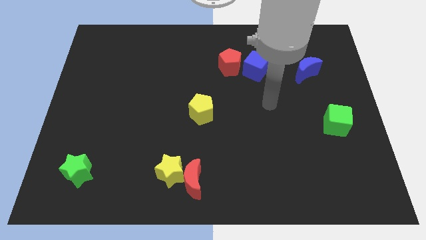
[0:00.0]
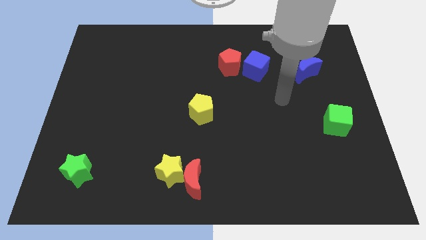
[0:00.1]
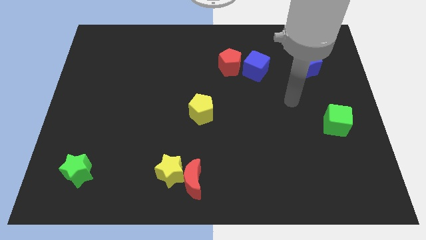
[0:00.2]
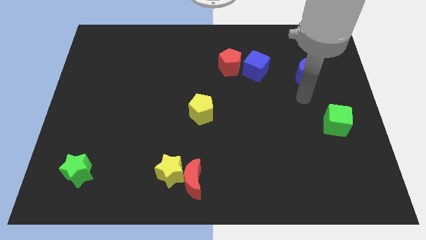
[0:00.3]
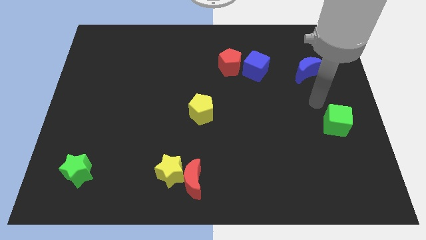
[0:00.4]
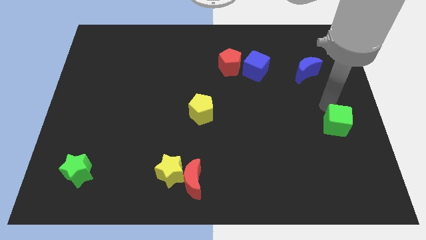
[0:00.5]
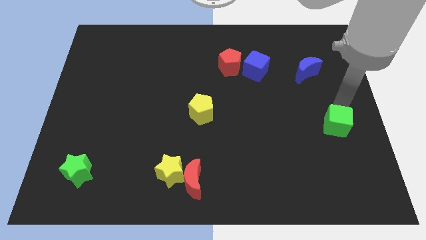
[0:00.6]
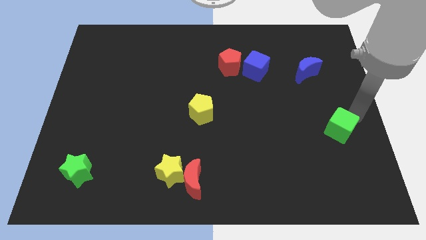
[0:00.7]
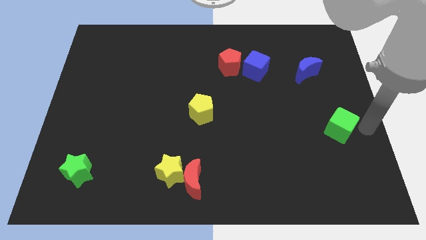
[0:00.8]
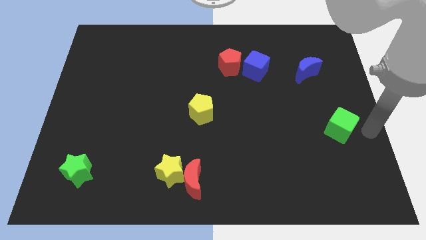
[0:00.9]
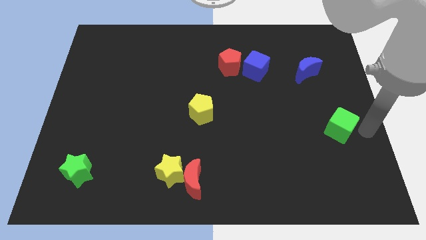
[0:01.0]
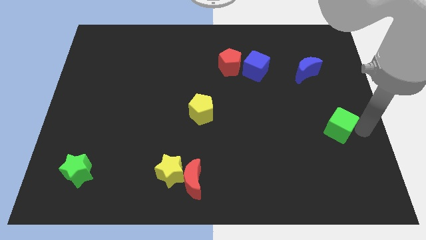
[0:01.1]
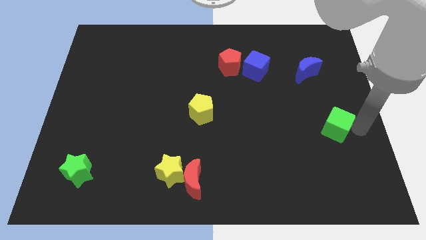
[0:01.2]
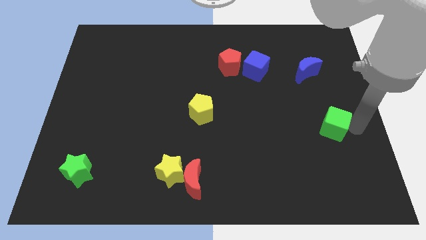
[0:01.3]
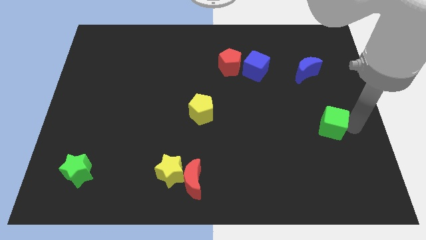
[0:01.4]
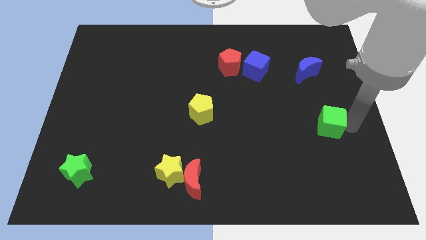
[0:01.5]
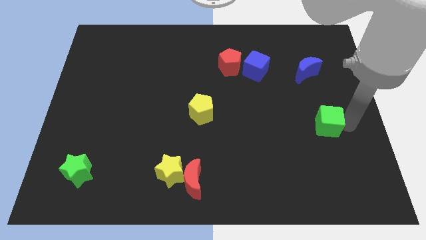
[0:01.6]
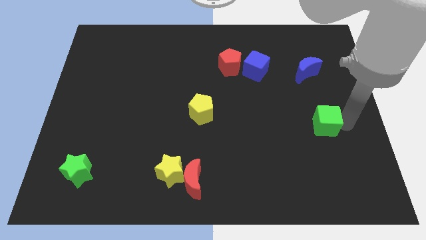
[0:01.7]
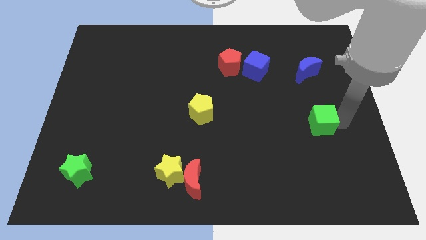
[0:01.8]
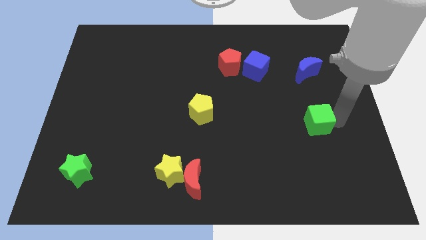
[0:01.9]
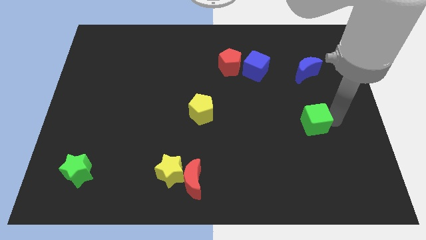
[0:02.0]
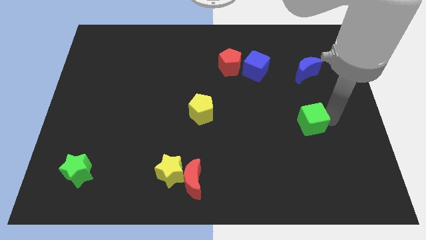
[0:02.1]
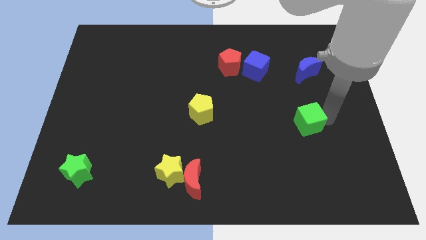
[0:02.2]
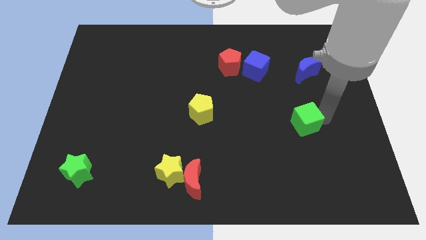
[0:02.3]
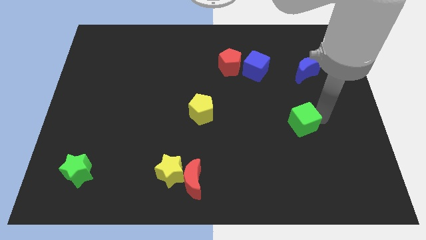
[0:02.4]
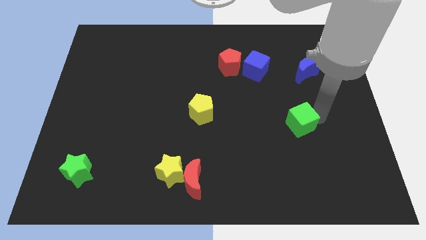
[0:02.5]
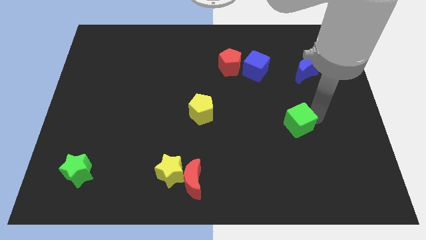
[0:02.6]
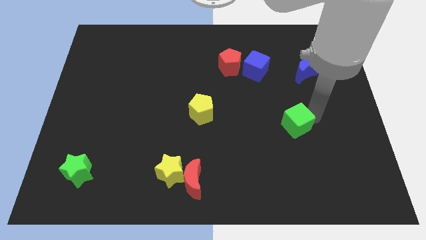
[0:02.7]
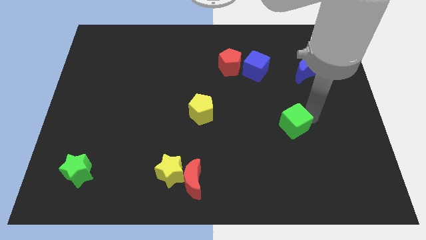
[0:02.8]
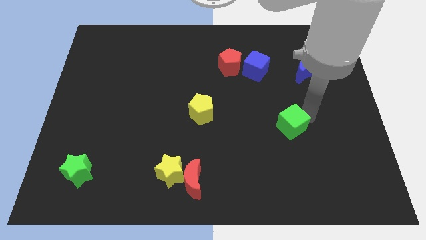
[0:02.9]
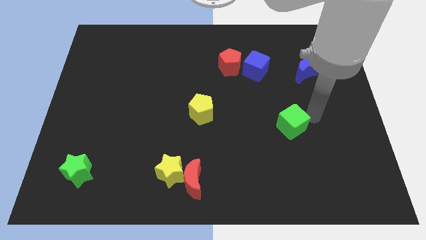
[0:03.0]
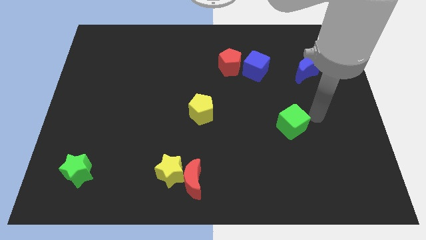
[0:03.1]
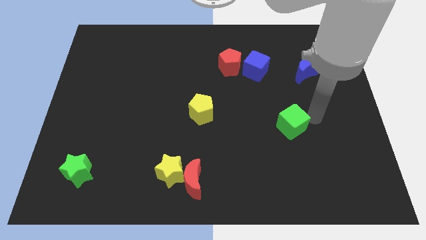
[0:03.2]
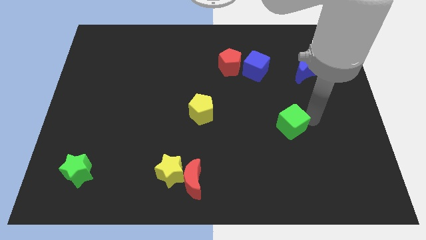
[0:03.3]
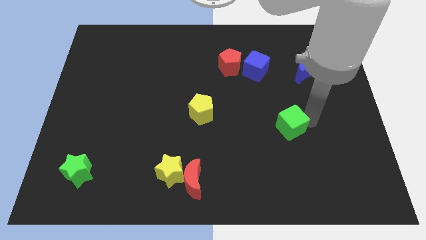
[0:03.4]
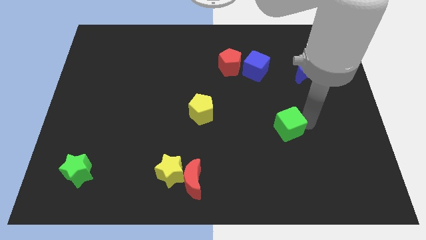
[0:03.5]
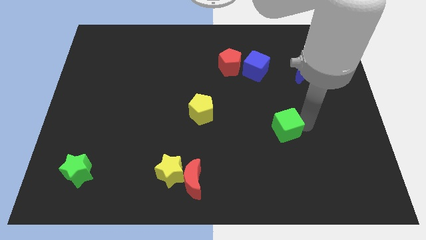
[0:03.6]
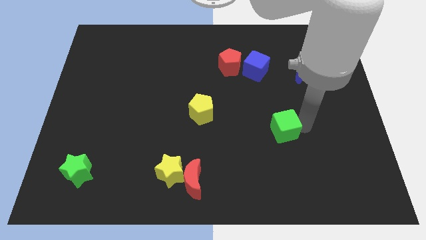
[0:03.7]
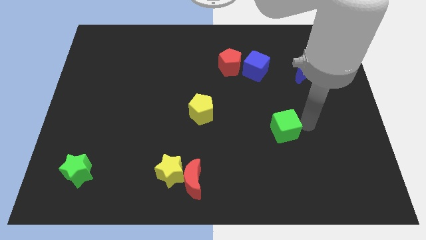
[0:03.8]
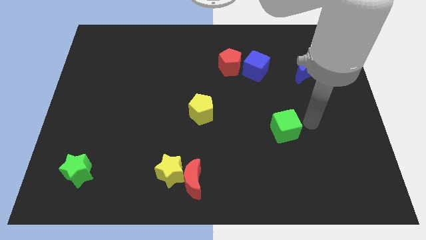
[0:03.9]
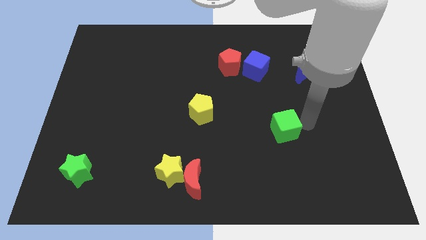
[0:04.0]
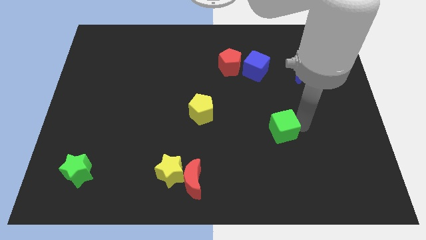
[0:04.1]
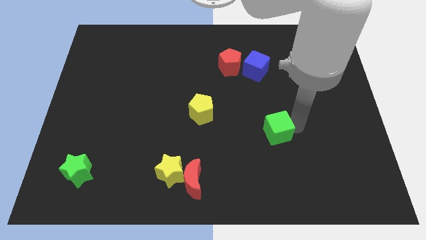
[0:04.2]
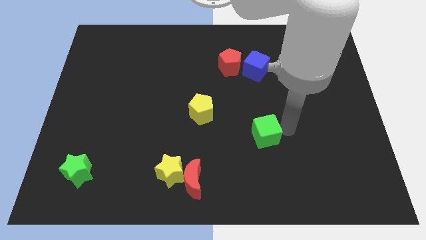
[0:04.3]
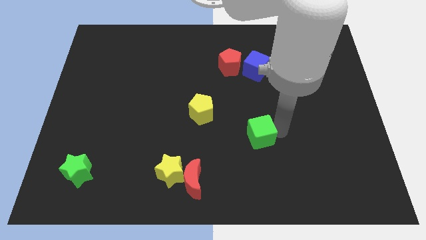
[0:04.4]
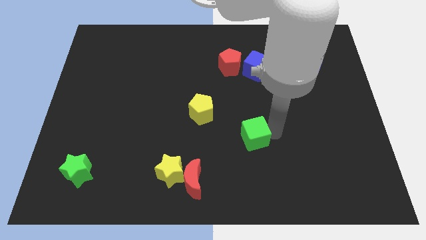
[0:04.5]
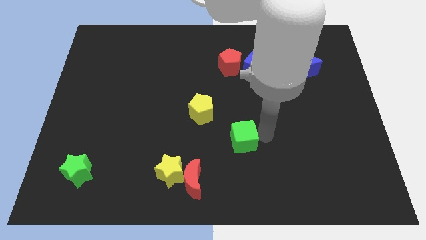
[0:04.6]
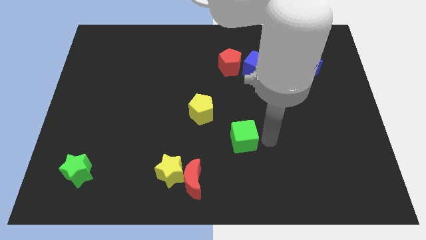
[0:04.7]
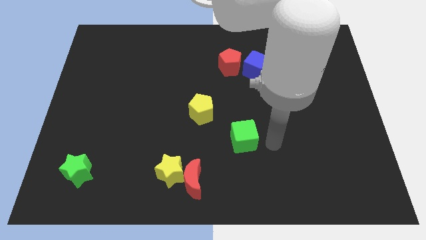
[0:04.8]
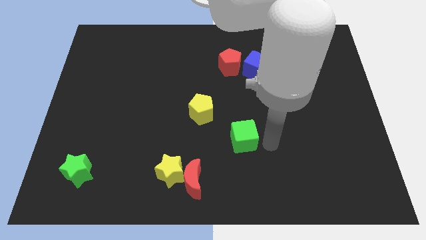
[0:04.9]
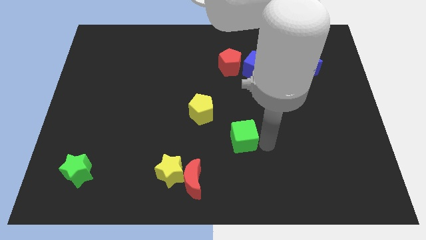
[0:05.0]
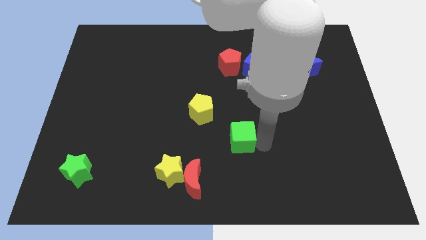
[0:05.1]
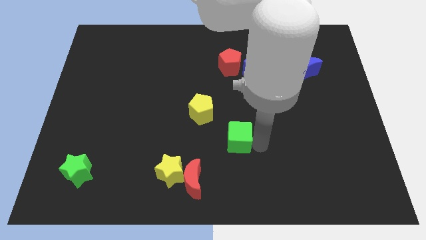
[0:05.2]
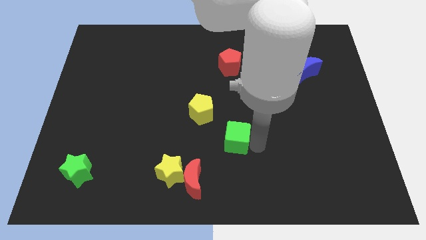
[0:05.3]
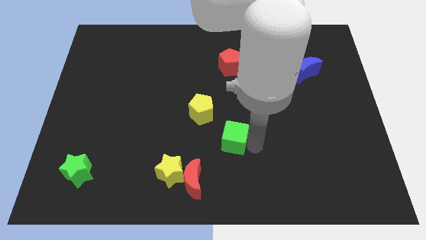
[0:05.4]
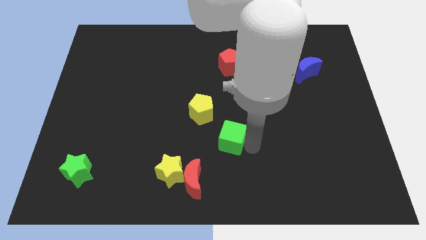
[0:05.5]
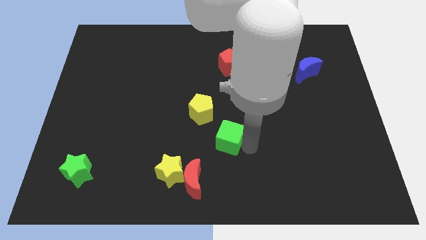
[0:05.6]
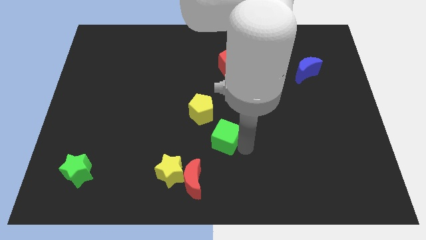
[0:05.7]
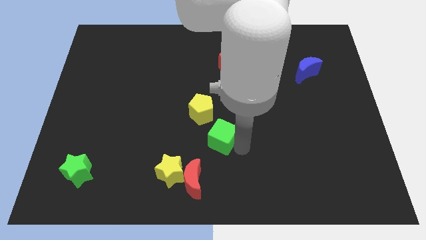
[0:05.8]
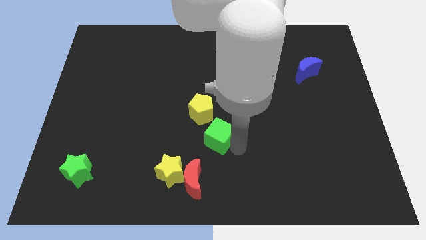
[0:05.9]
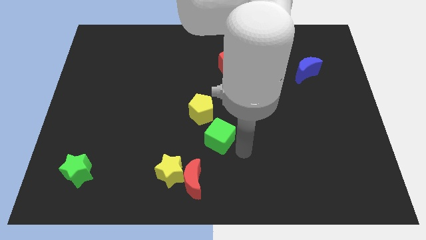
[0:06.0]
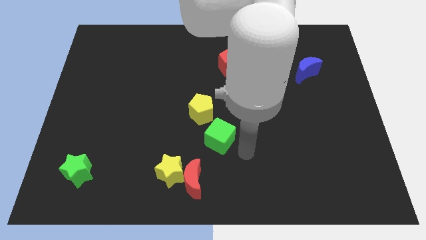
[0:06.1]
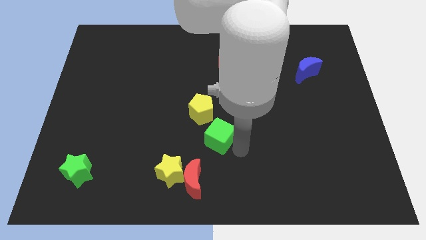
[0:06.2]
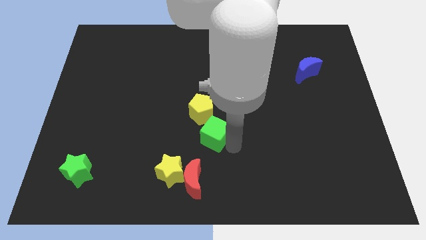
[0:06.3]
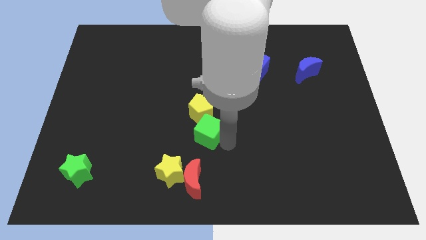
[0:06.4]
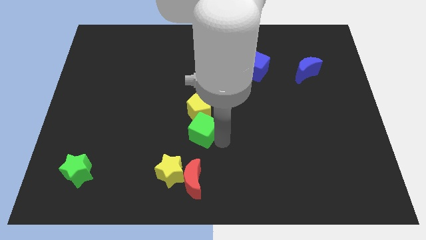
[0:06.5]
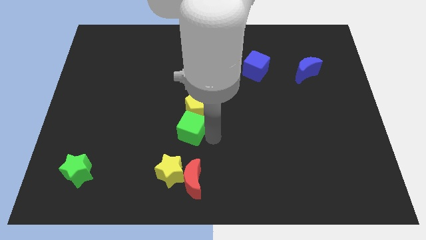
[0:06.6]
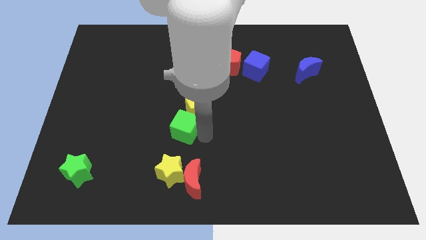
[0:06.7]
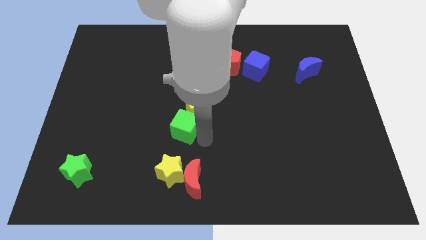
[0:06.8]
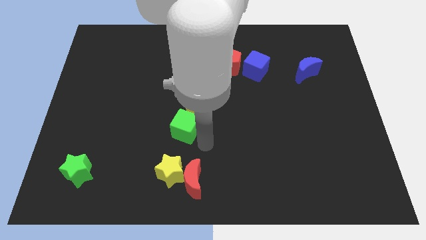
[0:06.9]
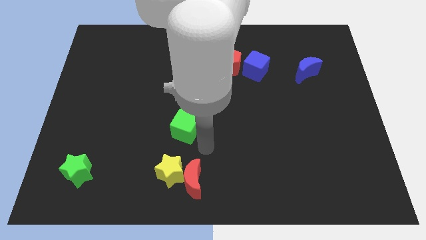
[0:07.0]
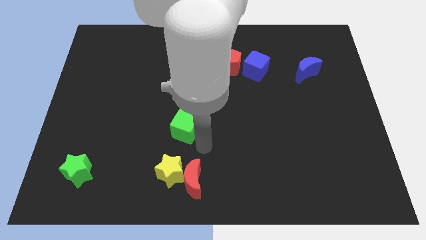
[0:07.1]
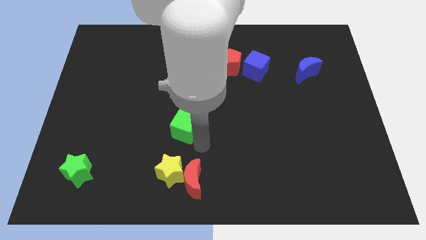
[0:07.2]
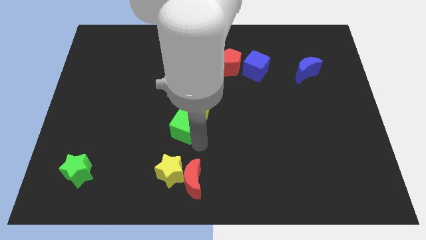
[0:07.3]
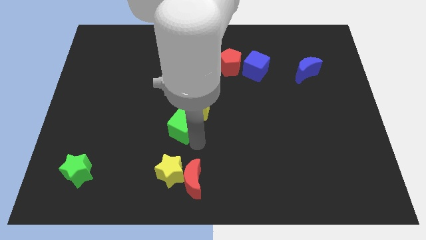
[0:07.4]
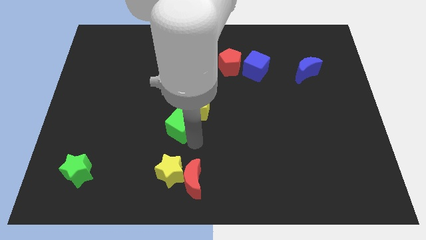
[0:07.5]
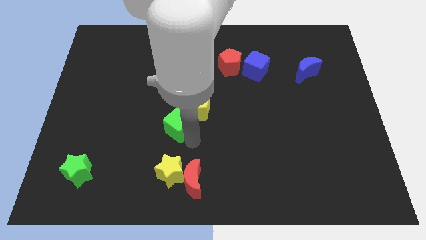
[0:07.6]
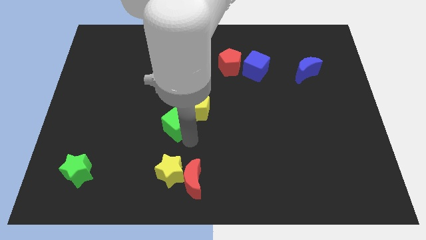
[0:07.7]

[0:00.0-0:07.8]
move the green cube to the left of the yellow pentagon
